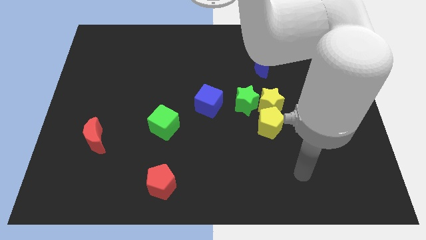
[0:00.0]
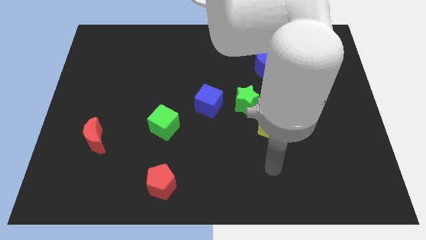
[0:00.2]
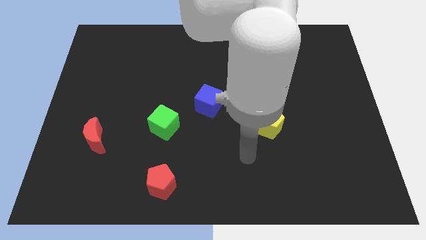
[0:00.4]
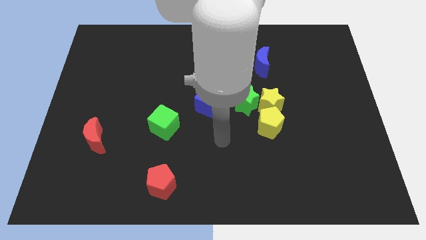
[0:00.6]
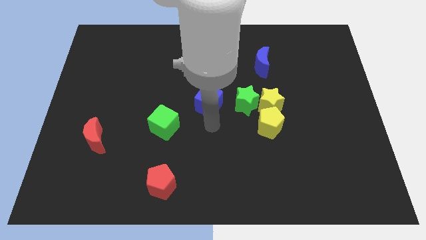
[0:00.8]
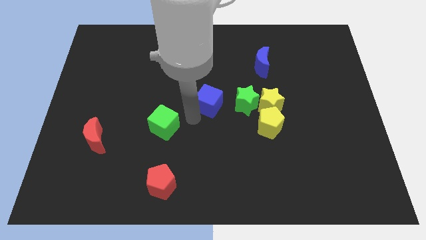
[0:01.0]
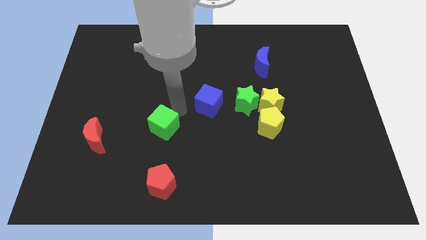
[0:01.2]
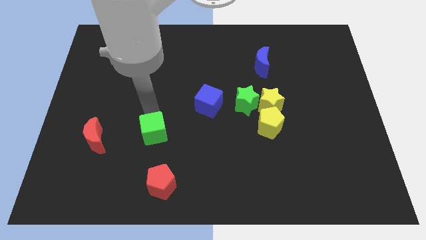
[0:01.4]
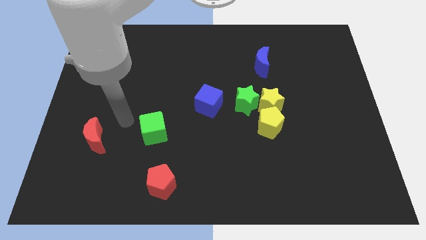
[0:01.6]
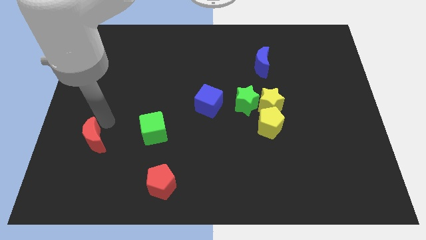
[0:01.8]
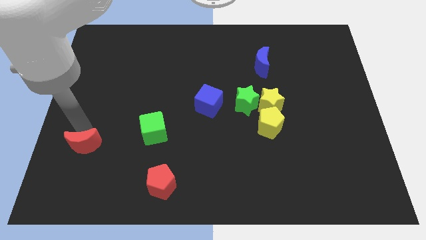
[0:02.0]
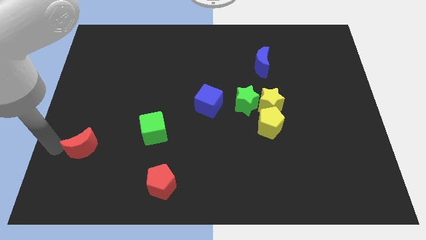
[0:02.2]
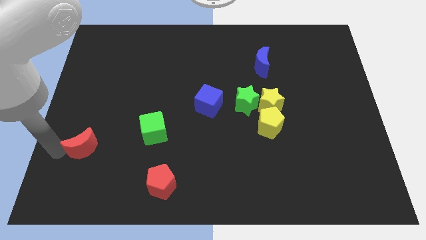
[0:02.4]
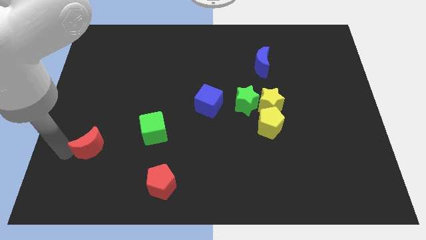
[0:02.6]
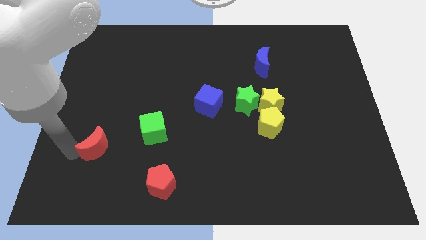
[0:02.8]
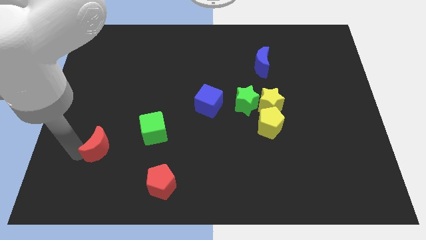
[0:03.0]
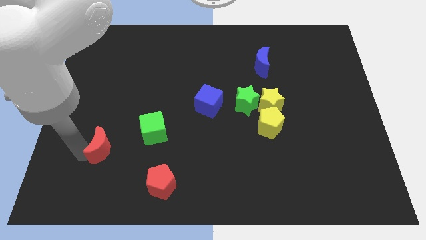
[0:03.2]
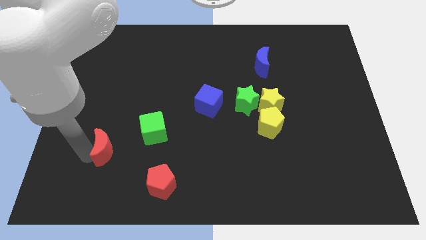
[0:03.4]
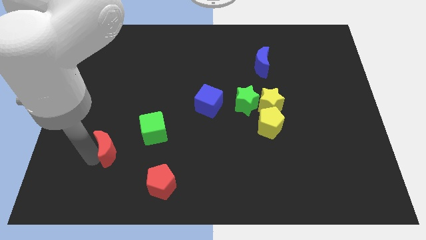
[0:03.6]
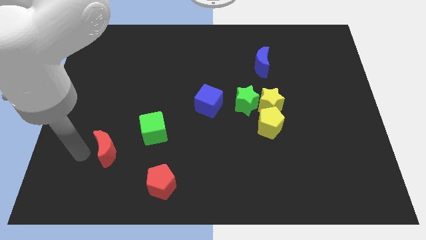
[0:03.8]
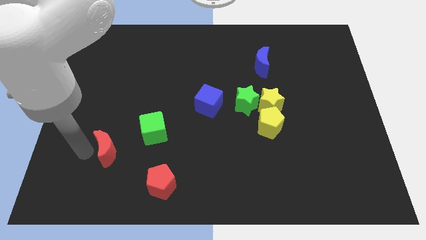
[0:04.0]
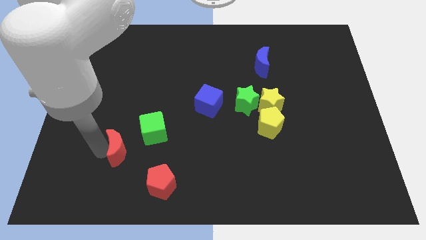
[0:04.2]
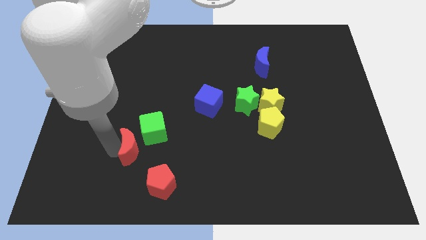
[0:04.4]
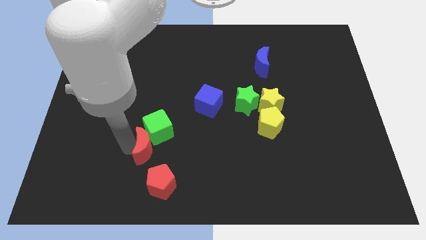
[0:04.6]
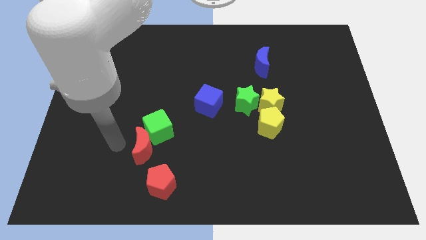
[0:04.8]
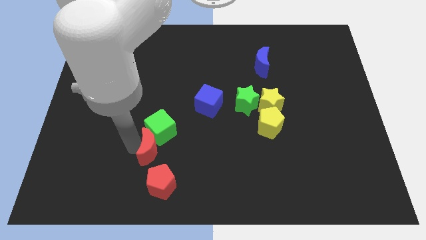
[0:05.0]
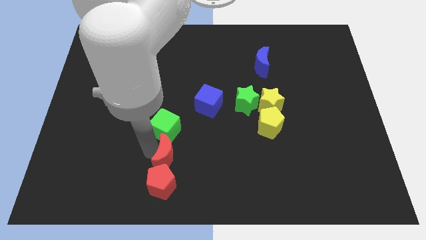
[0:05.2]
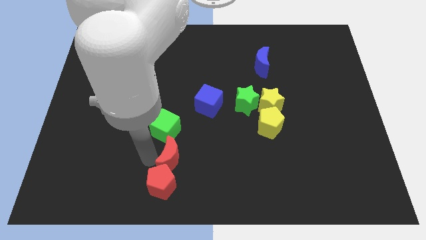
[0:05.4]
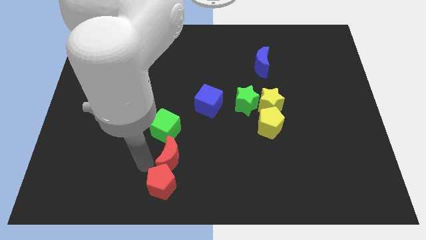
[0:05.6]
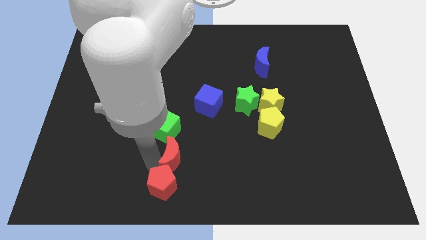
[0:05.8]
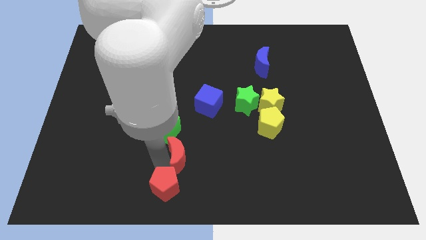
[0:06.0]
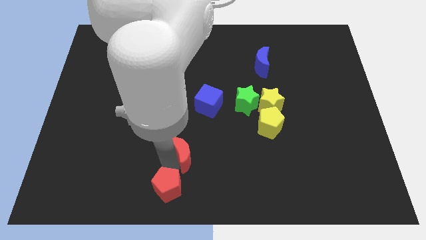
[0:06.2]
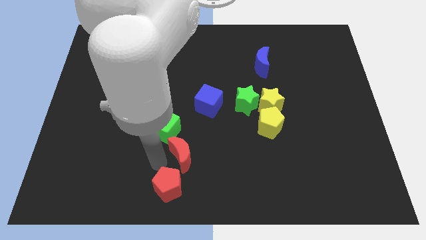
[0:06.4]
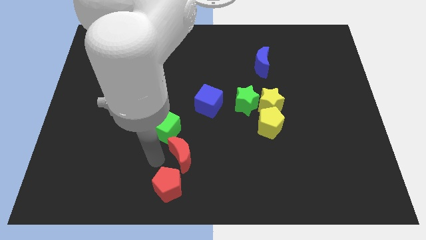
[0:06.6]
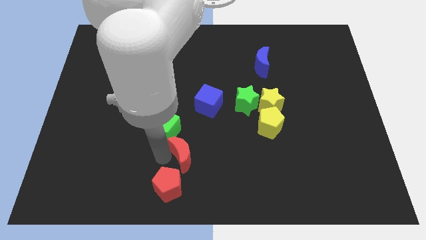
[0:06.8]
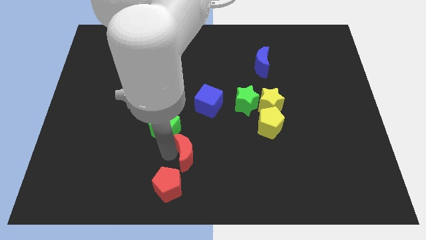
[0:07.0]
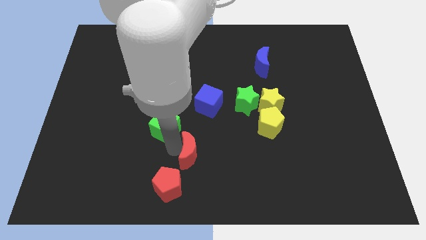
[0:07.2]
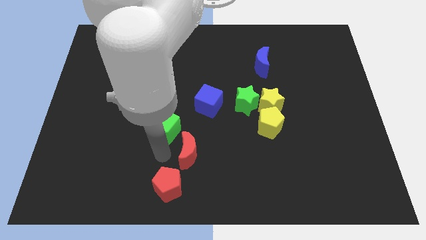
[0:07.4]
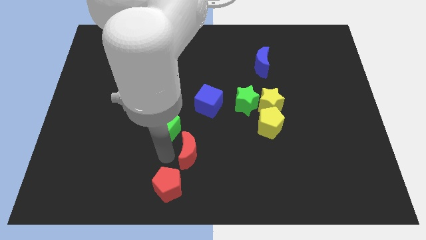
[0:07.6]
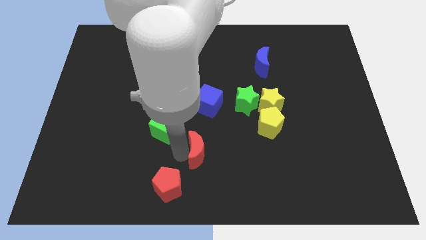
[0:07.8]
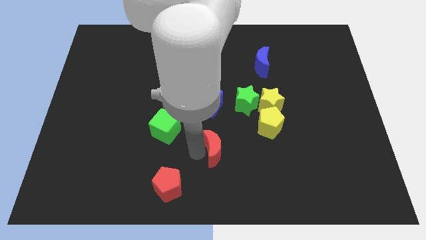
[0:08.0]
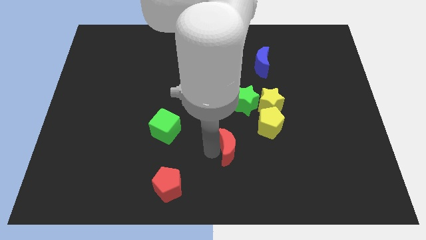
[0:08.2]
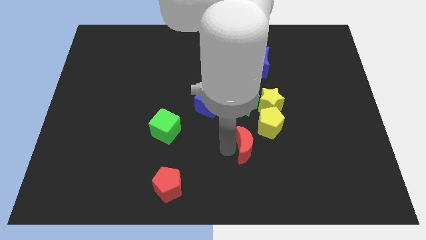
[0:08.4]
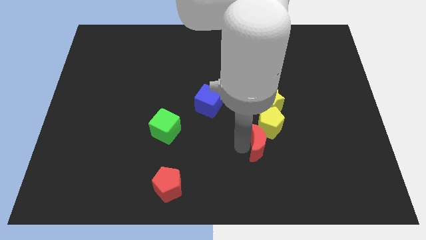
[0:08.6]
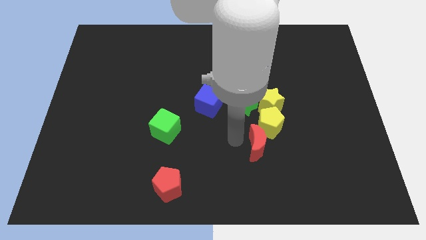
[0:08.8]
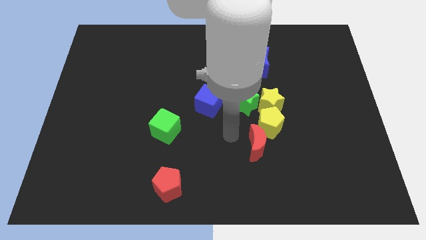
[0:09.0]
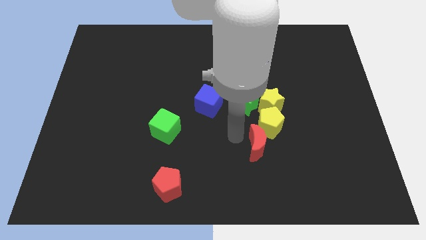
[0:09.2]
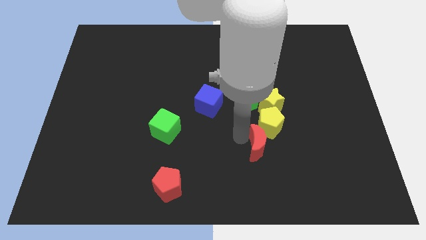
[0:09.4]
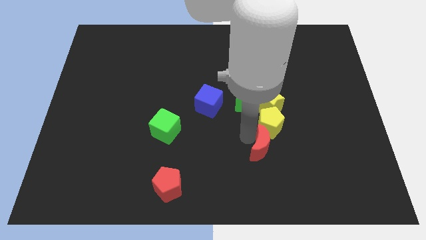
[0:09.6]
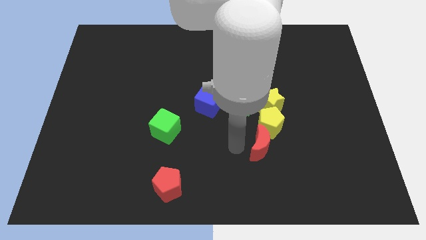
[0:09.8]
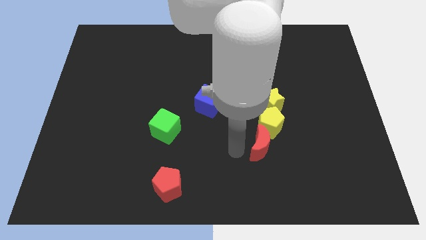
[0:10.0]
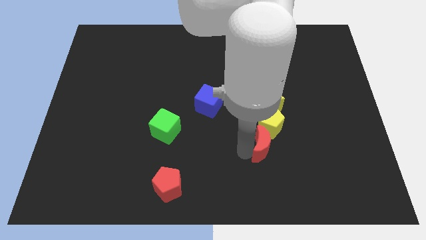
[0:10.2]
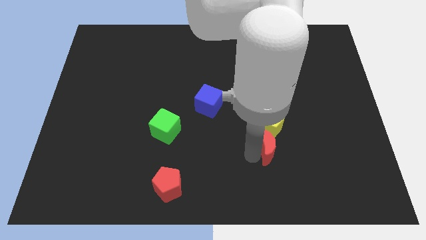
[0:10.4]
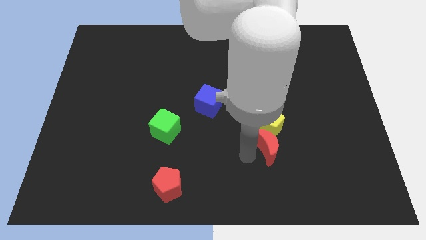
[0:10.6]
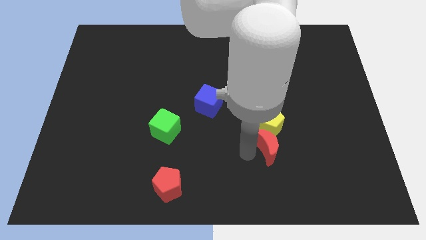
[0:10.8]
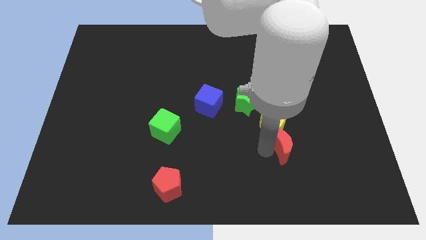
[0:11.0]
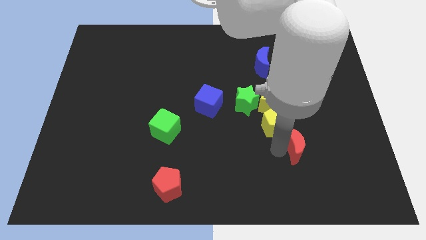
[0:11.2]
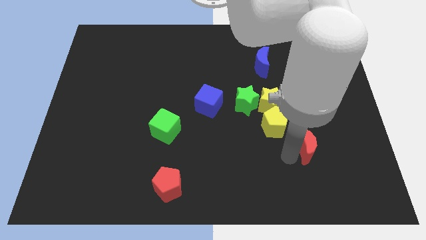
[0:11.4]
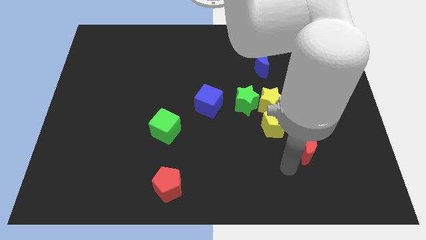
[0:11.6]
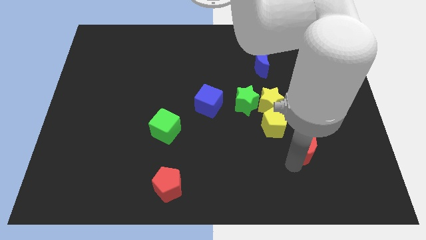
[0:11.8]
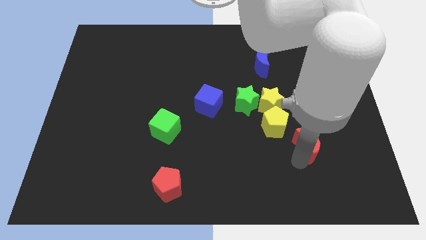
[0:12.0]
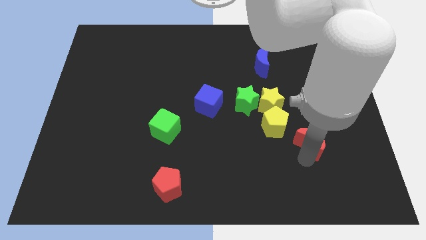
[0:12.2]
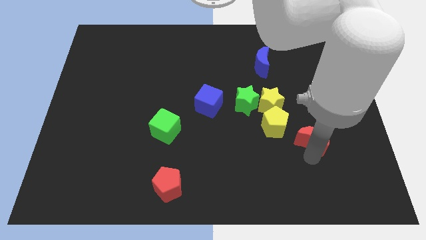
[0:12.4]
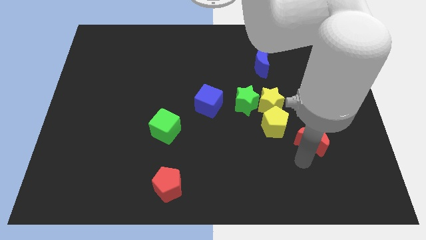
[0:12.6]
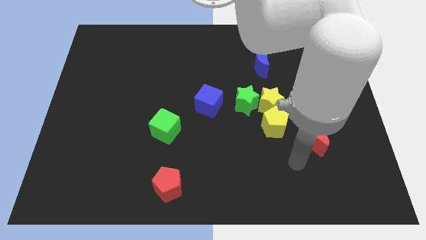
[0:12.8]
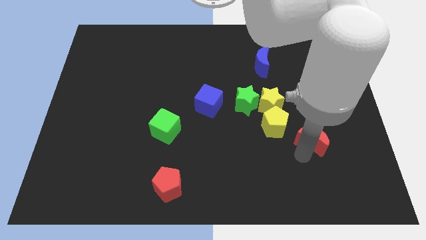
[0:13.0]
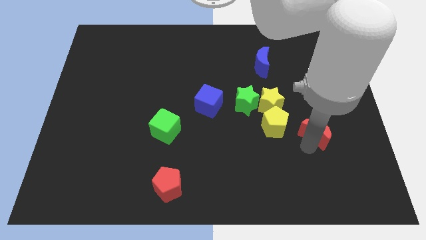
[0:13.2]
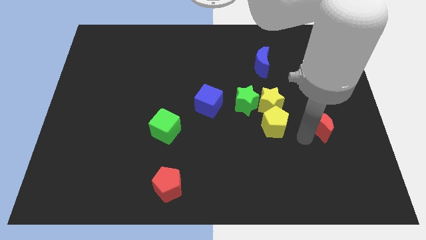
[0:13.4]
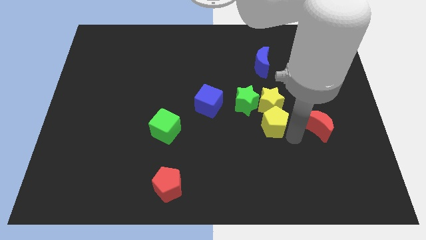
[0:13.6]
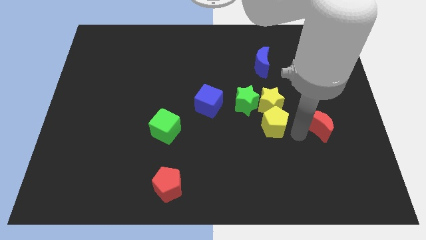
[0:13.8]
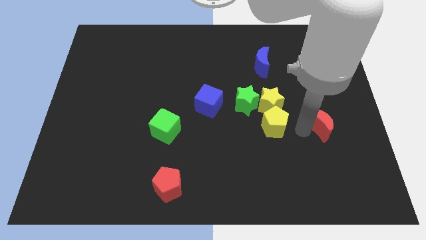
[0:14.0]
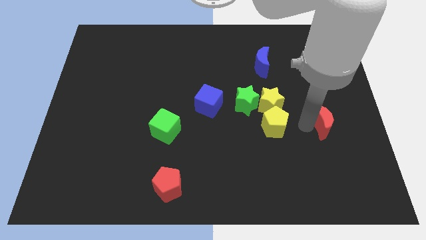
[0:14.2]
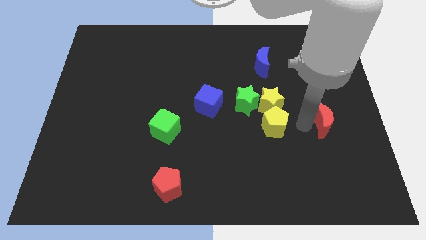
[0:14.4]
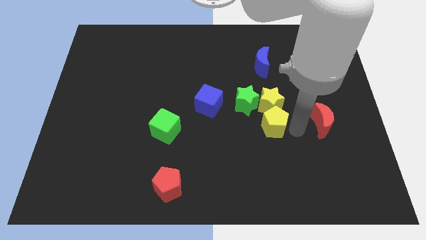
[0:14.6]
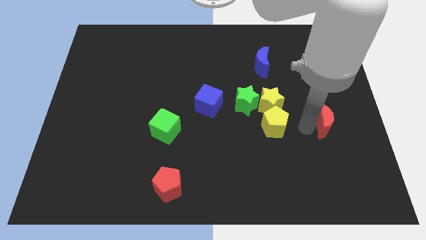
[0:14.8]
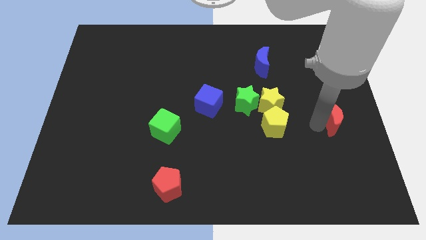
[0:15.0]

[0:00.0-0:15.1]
slide the red moon to the center right
